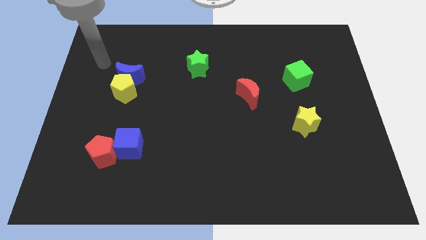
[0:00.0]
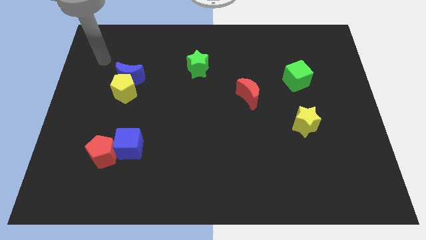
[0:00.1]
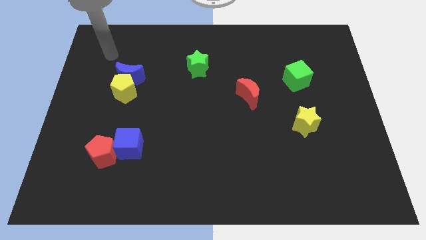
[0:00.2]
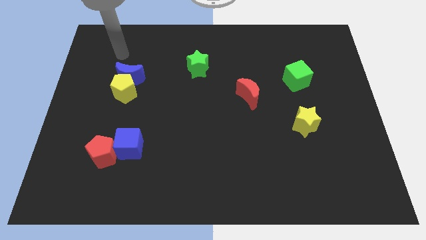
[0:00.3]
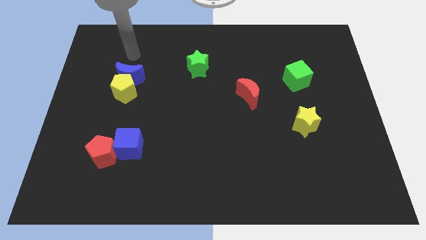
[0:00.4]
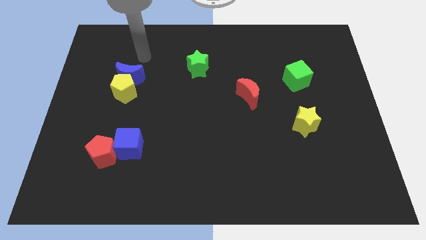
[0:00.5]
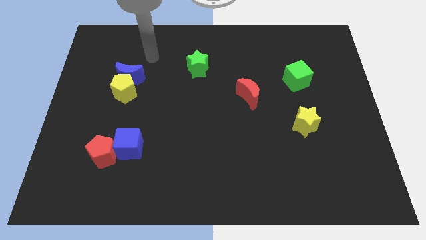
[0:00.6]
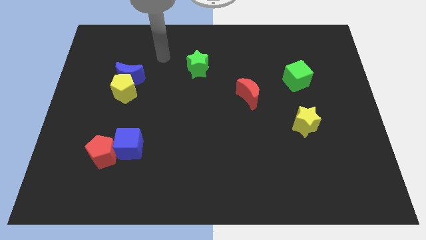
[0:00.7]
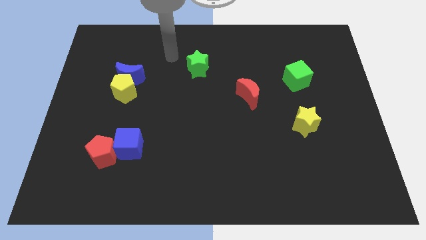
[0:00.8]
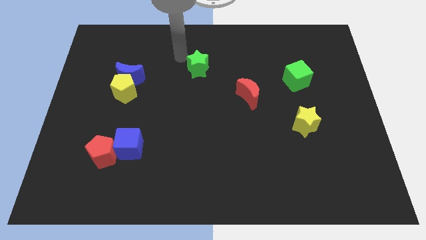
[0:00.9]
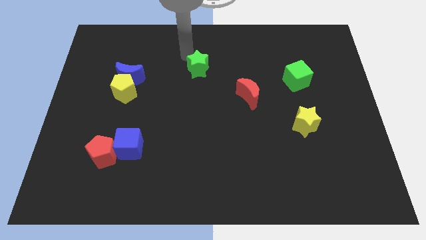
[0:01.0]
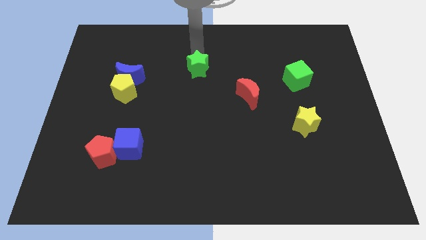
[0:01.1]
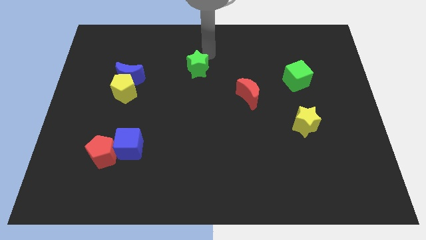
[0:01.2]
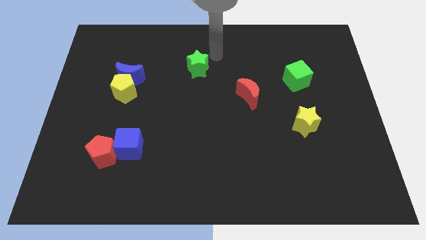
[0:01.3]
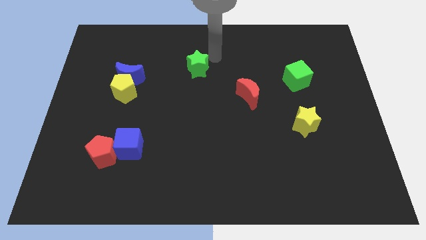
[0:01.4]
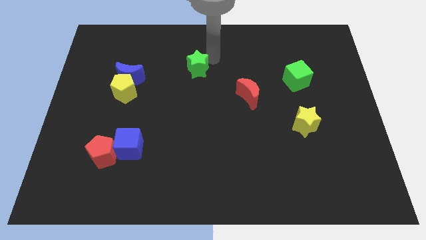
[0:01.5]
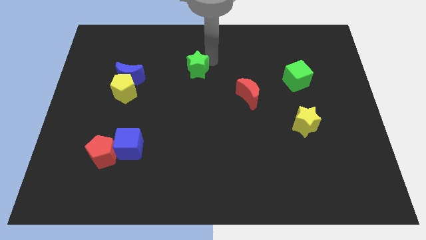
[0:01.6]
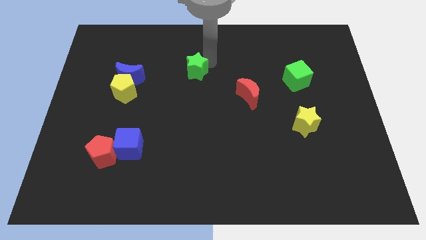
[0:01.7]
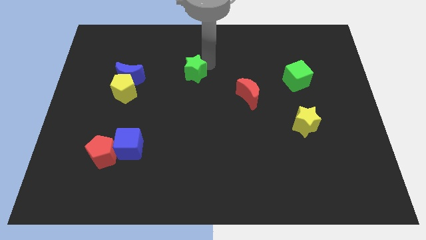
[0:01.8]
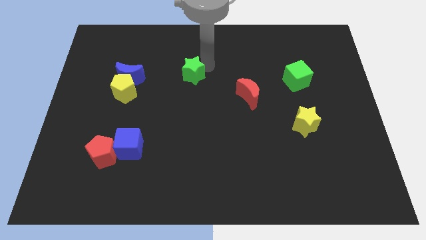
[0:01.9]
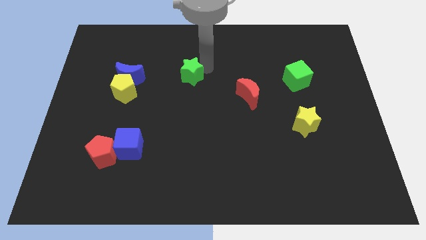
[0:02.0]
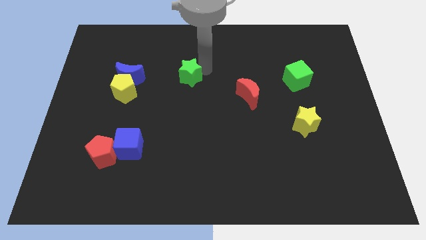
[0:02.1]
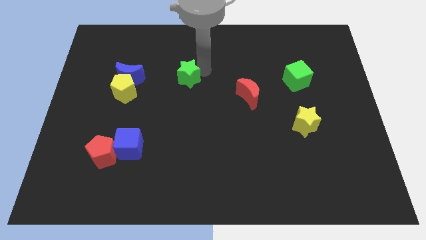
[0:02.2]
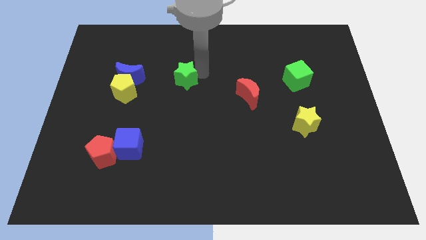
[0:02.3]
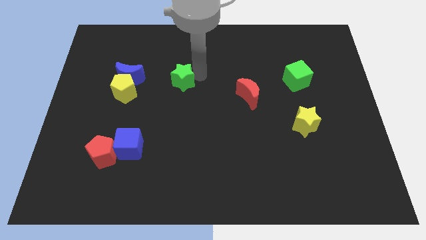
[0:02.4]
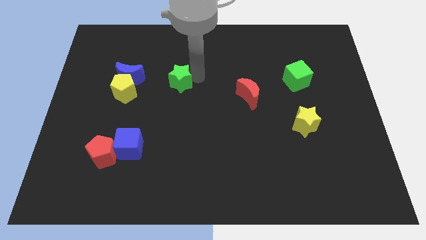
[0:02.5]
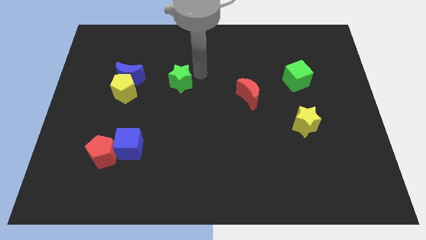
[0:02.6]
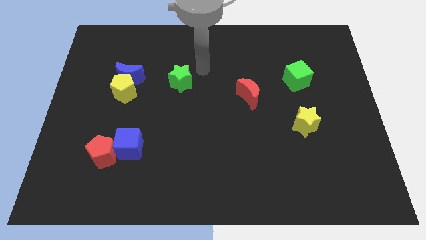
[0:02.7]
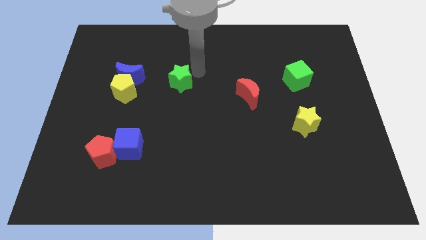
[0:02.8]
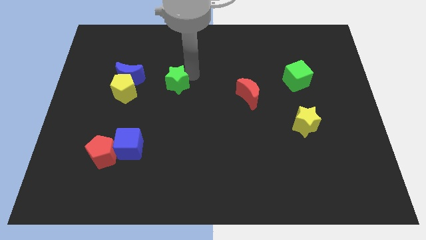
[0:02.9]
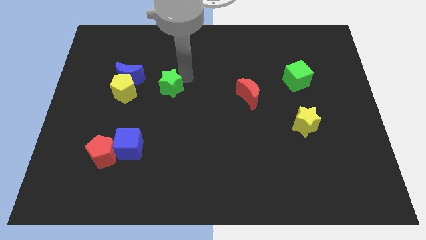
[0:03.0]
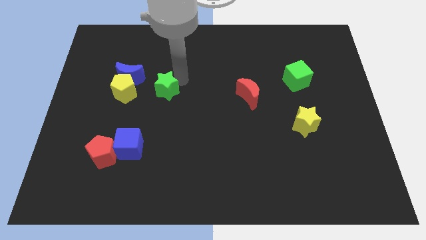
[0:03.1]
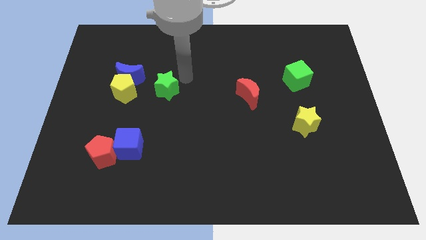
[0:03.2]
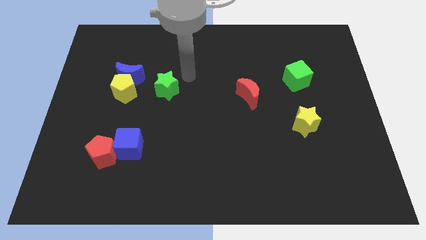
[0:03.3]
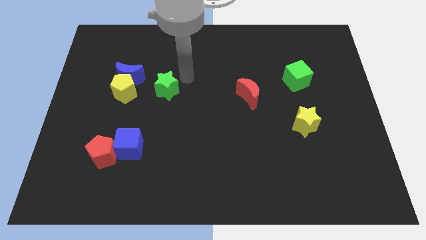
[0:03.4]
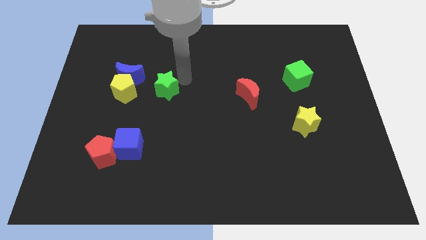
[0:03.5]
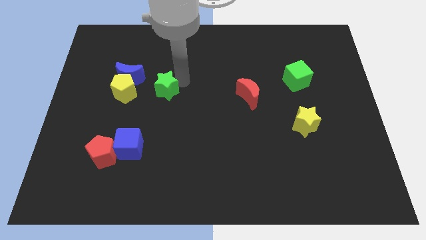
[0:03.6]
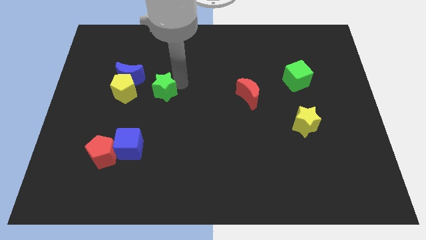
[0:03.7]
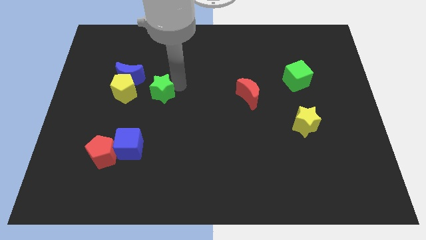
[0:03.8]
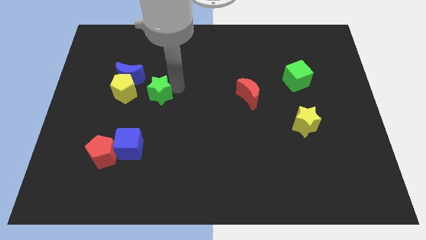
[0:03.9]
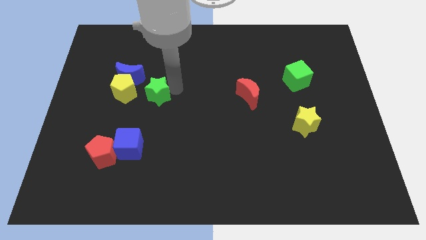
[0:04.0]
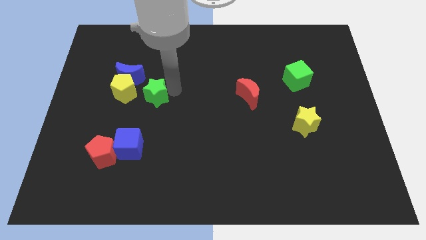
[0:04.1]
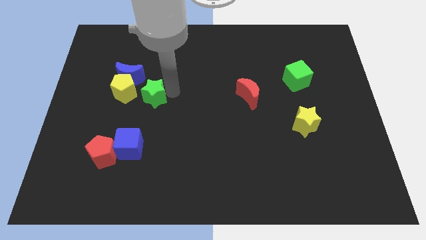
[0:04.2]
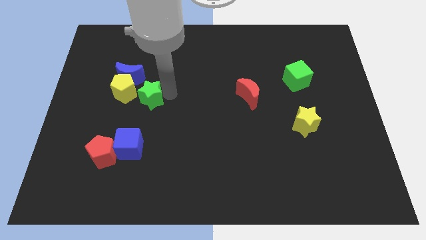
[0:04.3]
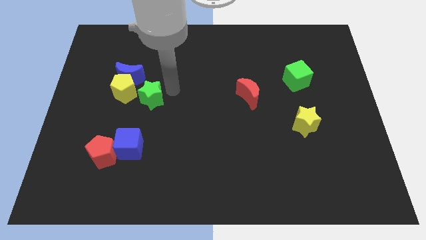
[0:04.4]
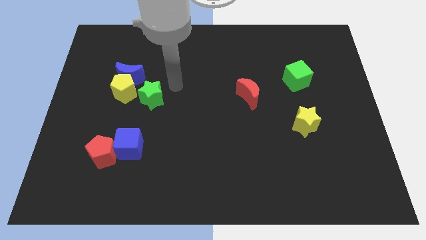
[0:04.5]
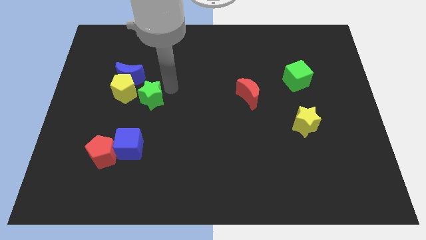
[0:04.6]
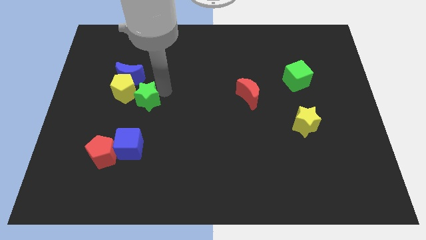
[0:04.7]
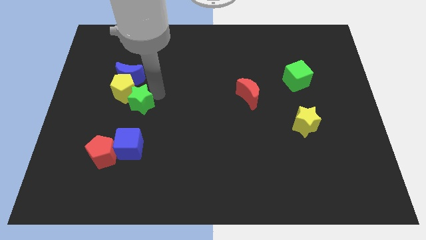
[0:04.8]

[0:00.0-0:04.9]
push the green star below the blue moon

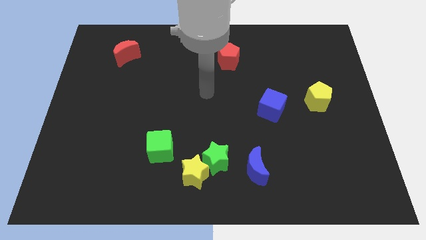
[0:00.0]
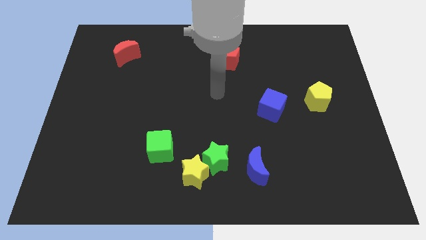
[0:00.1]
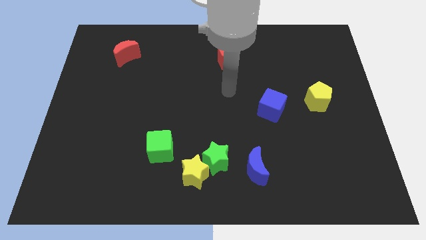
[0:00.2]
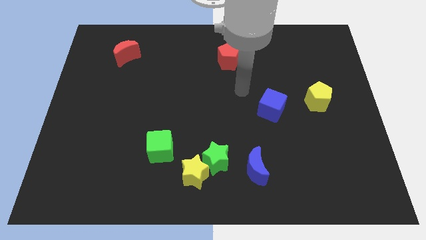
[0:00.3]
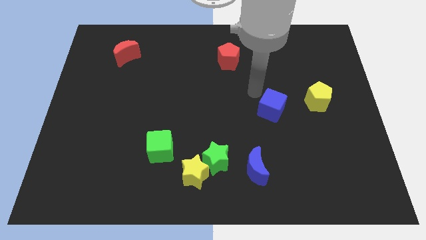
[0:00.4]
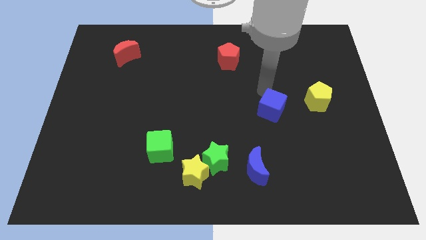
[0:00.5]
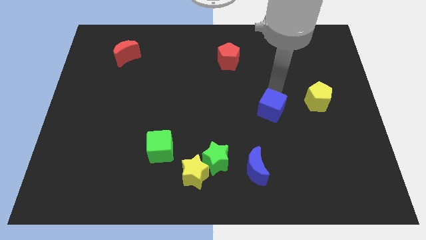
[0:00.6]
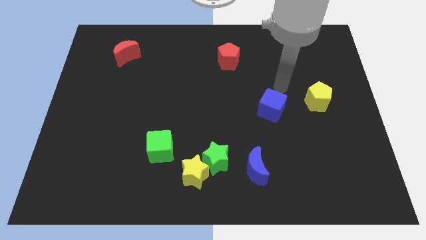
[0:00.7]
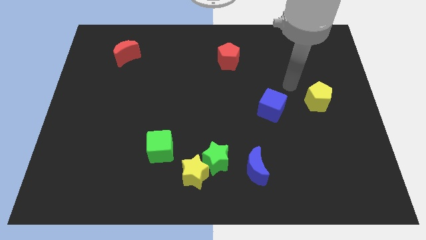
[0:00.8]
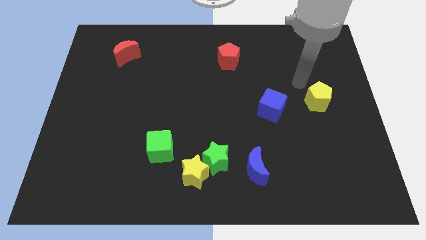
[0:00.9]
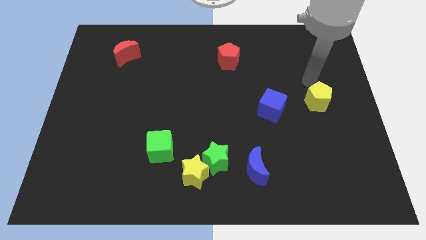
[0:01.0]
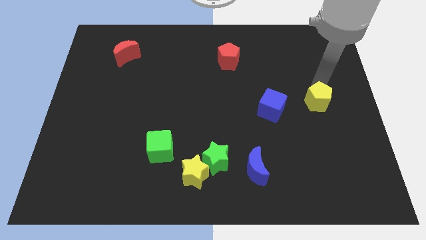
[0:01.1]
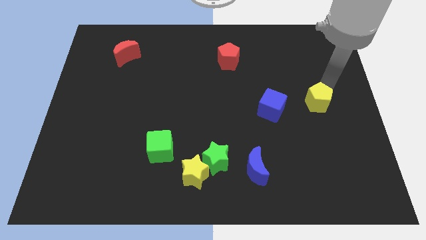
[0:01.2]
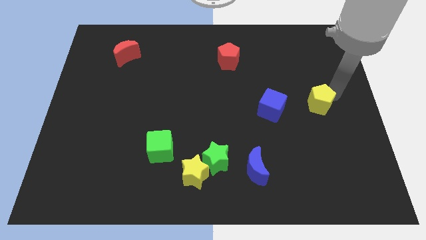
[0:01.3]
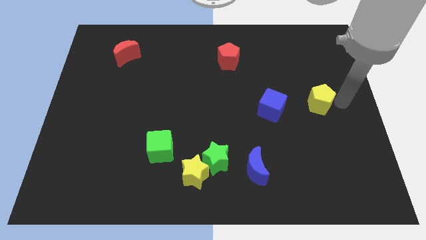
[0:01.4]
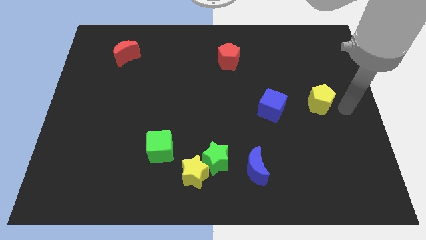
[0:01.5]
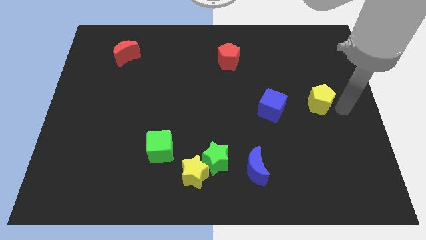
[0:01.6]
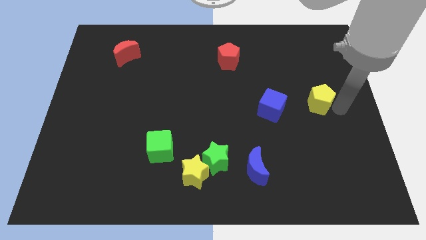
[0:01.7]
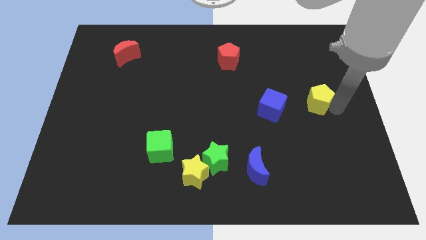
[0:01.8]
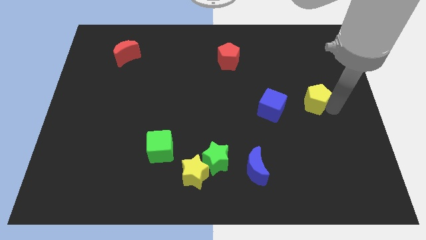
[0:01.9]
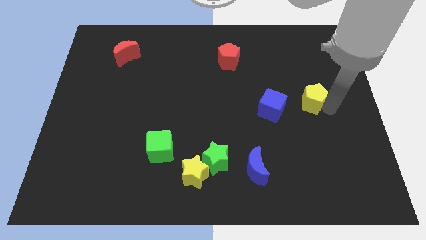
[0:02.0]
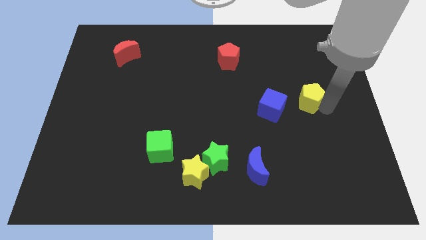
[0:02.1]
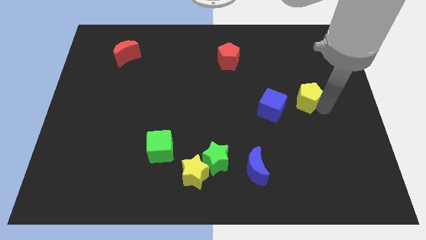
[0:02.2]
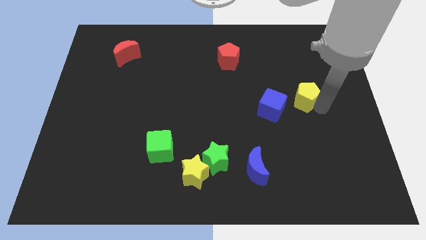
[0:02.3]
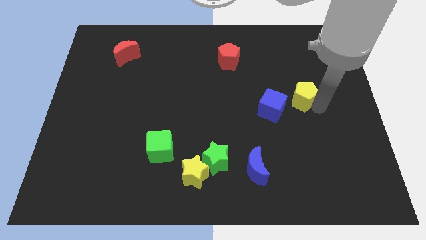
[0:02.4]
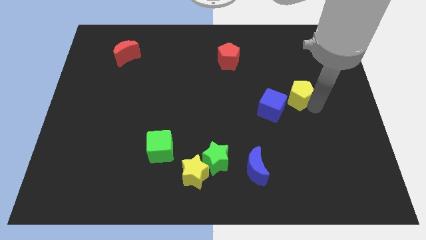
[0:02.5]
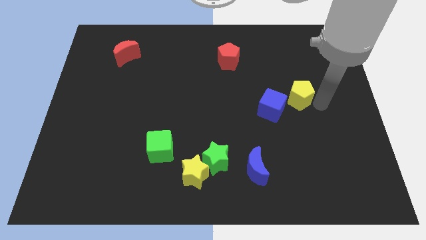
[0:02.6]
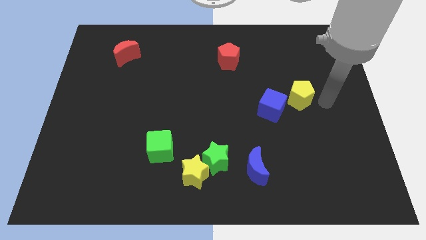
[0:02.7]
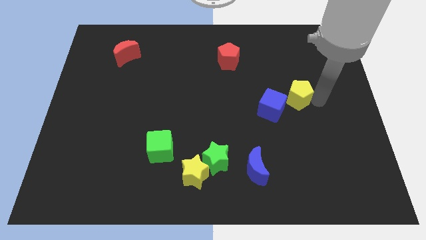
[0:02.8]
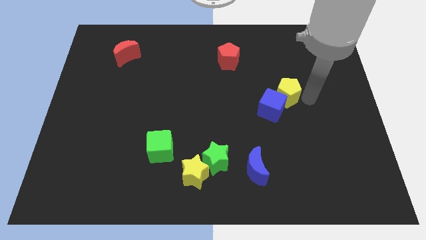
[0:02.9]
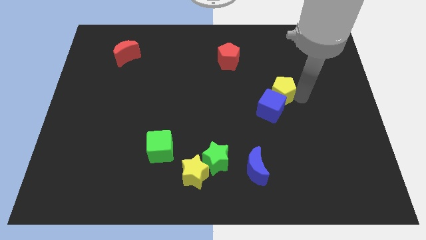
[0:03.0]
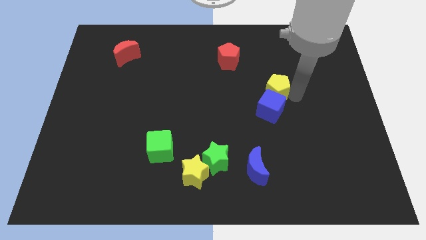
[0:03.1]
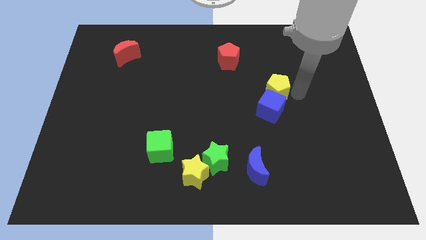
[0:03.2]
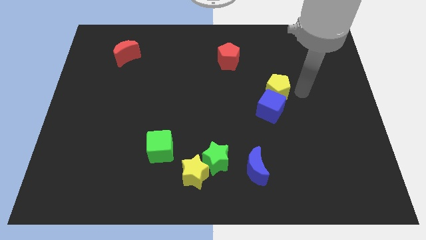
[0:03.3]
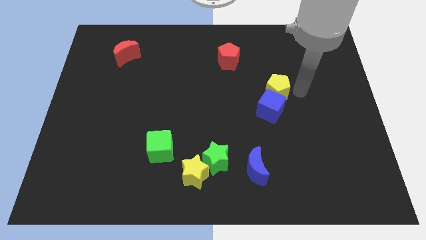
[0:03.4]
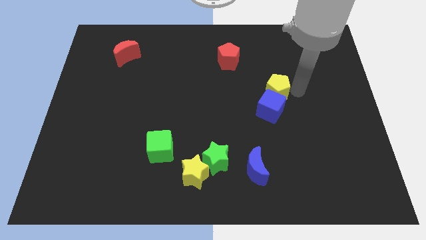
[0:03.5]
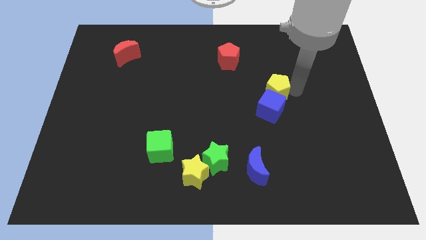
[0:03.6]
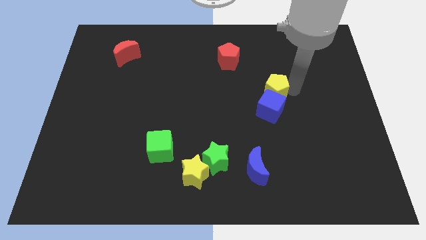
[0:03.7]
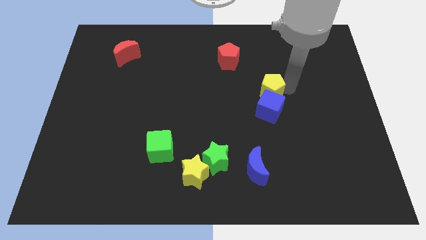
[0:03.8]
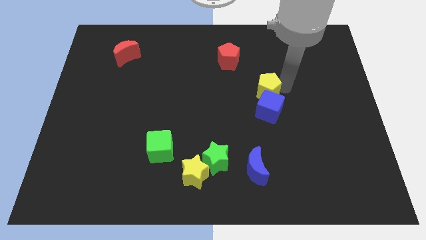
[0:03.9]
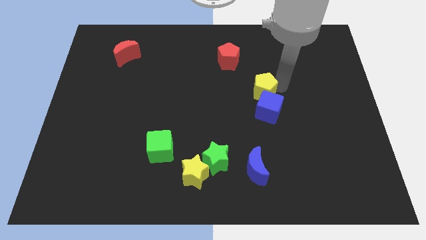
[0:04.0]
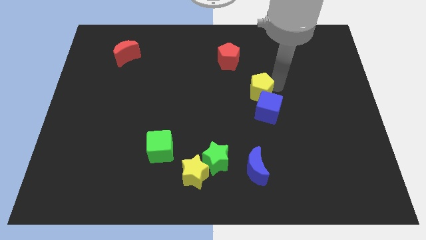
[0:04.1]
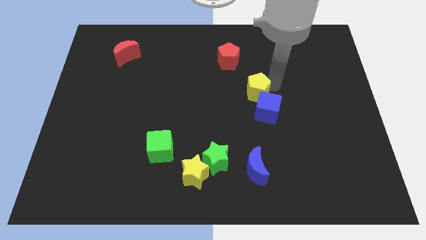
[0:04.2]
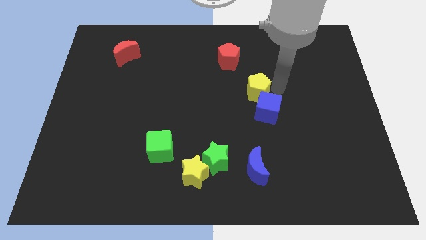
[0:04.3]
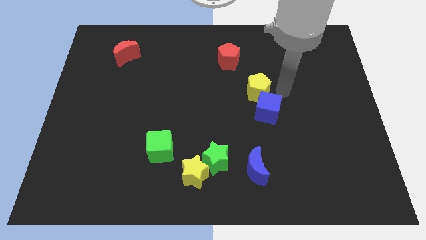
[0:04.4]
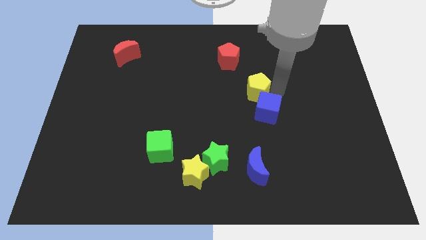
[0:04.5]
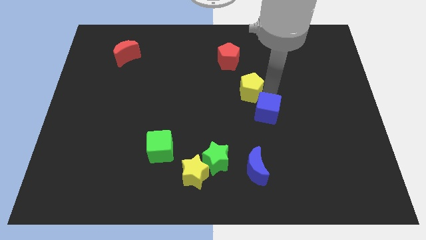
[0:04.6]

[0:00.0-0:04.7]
slide the yellow pentagon to the bottom side of the red pentagon
